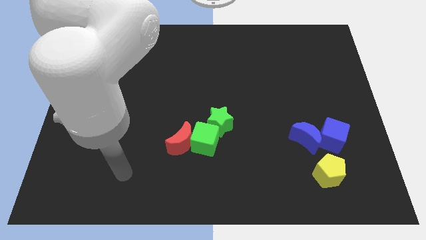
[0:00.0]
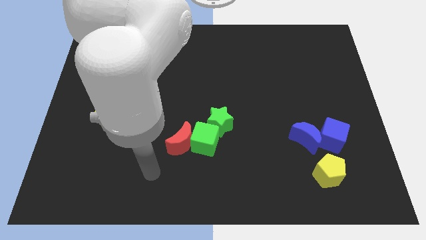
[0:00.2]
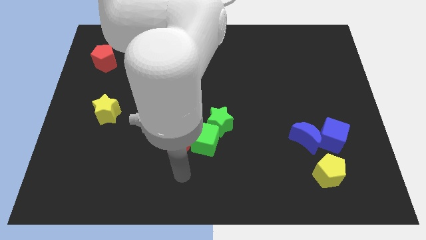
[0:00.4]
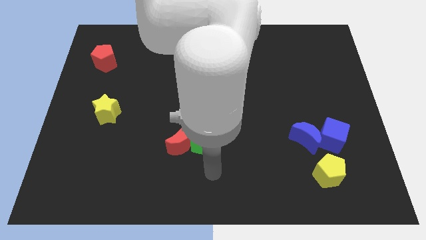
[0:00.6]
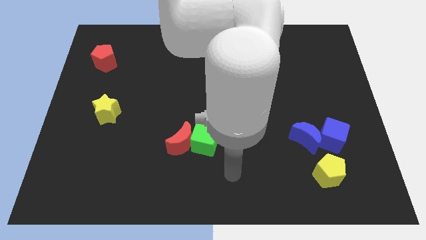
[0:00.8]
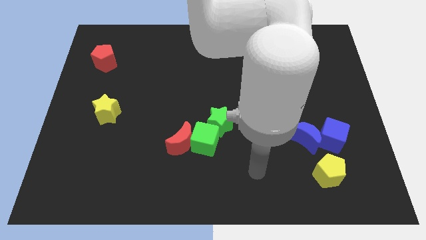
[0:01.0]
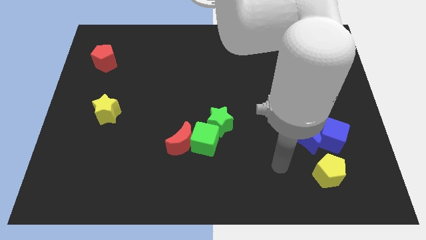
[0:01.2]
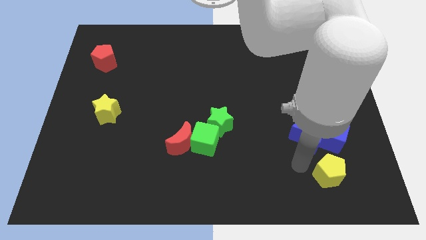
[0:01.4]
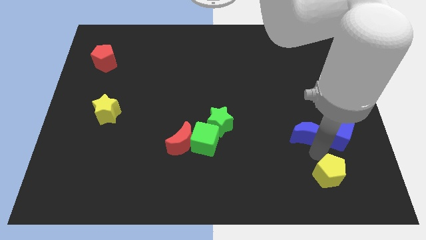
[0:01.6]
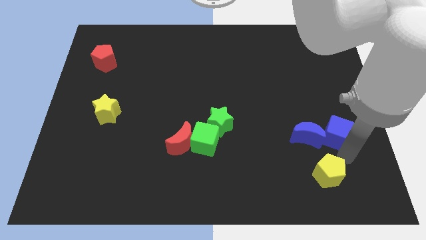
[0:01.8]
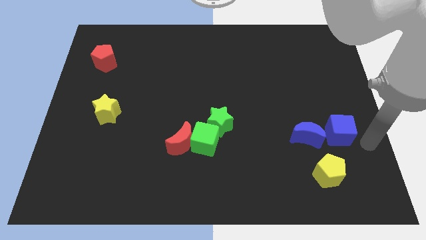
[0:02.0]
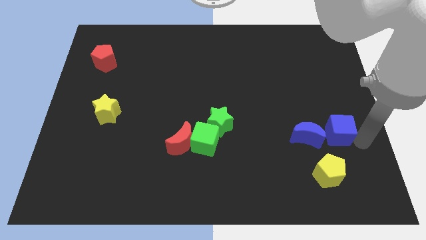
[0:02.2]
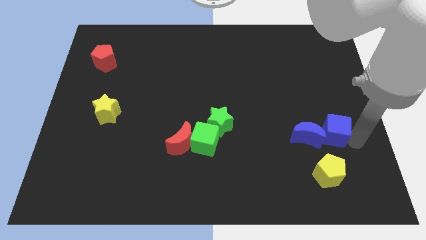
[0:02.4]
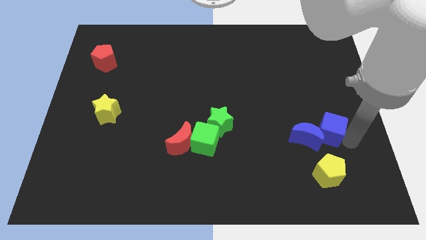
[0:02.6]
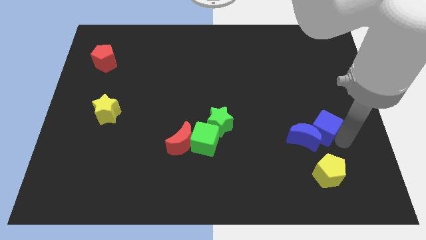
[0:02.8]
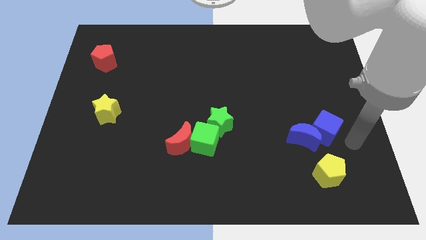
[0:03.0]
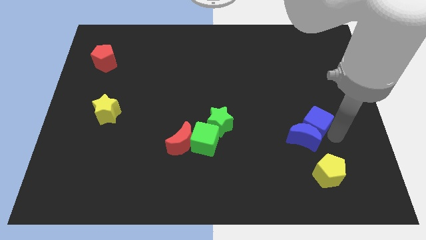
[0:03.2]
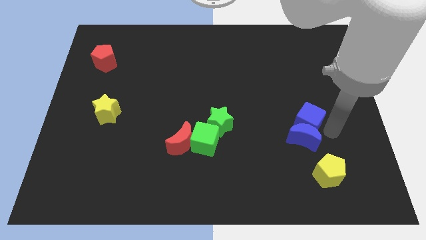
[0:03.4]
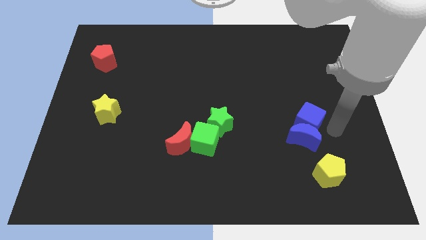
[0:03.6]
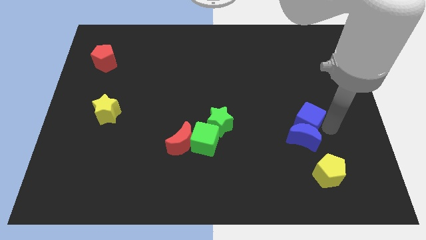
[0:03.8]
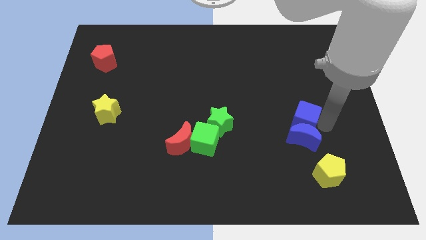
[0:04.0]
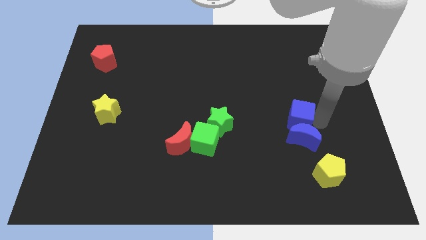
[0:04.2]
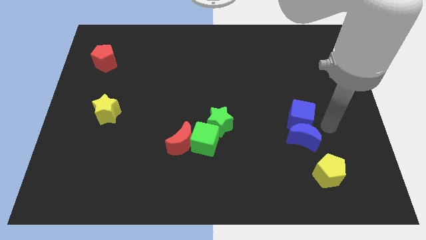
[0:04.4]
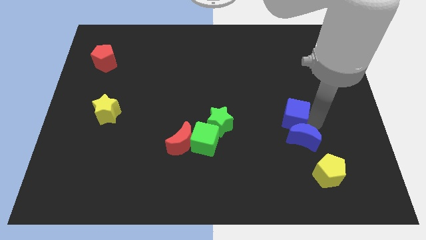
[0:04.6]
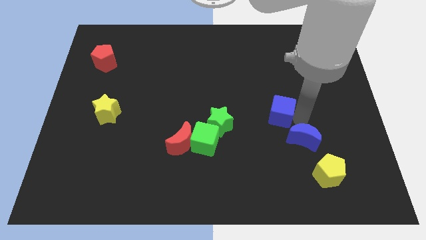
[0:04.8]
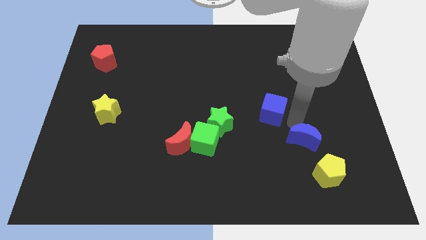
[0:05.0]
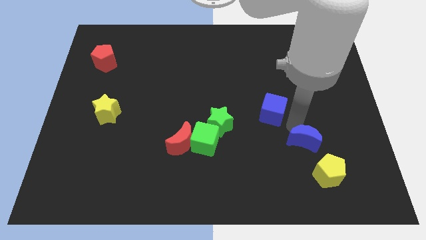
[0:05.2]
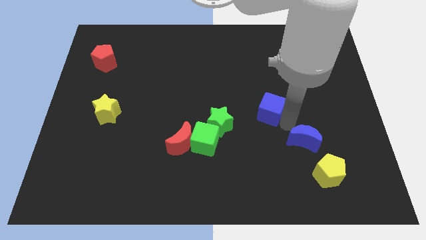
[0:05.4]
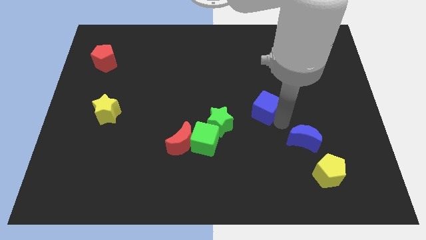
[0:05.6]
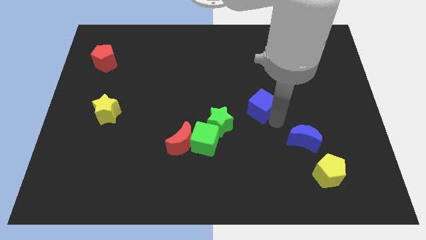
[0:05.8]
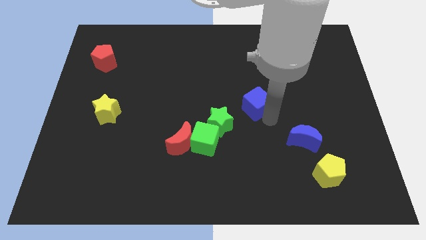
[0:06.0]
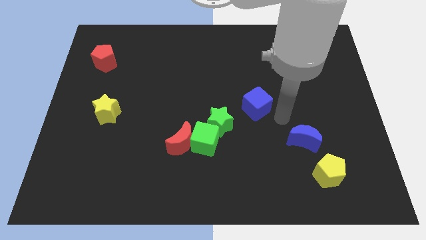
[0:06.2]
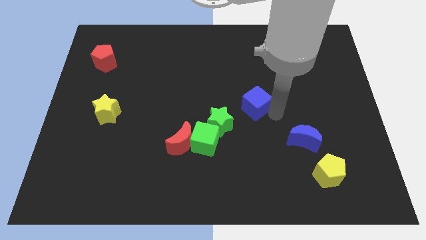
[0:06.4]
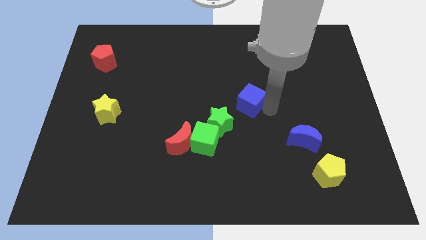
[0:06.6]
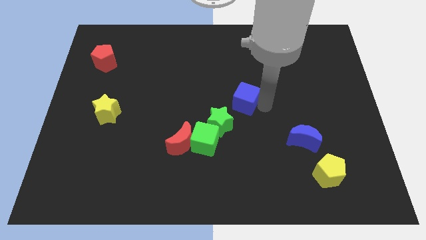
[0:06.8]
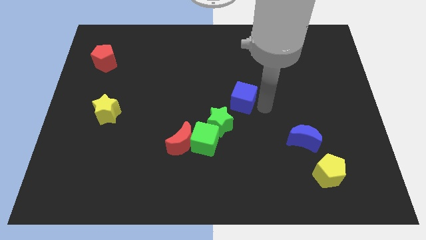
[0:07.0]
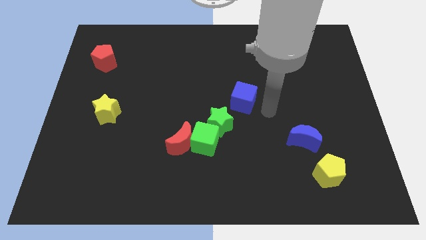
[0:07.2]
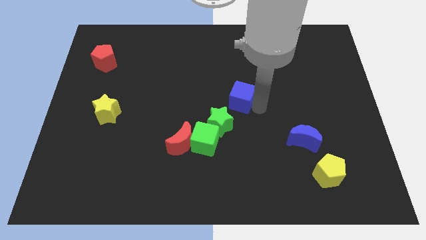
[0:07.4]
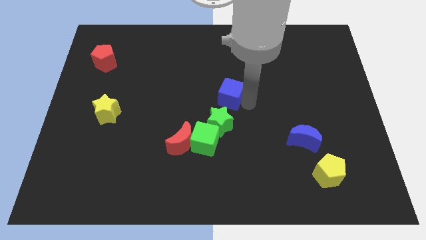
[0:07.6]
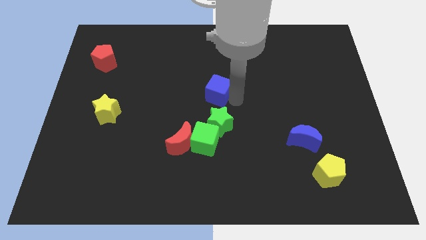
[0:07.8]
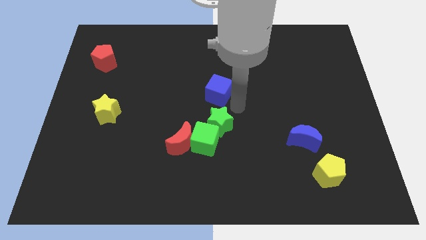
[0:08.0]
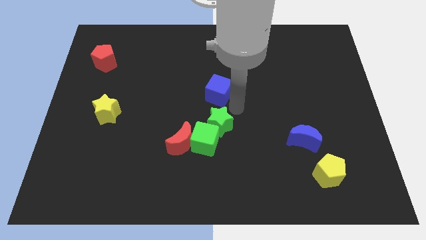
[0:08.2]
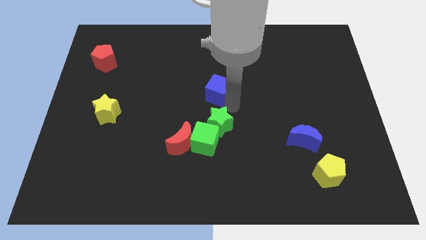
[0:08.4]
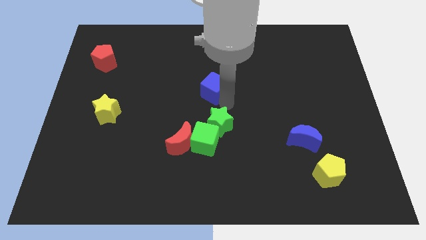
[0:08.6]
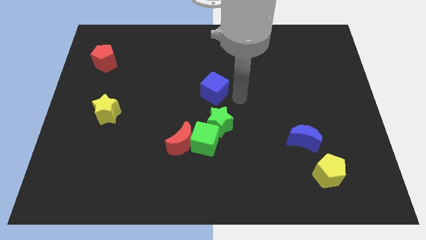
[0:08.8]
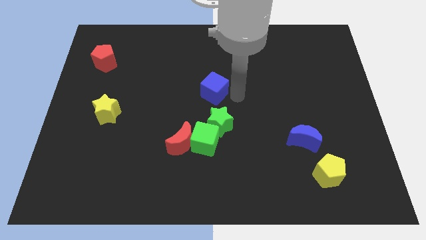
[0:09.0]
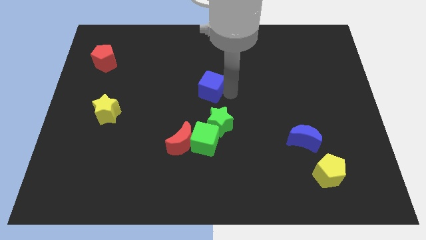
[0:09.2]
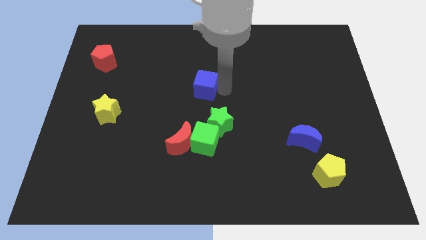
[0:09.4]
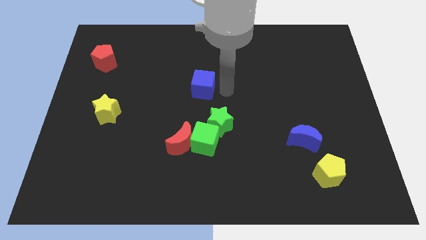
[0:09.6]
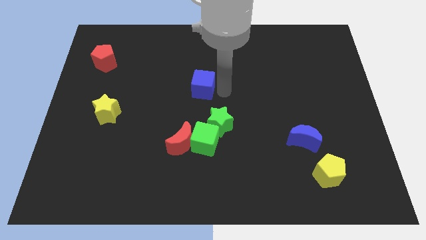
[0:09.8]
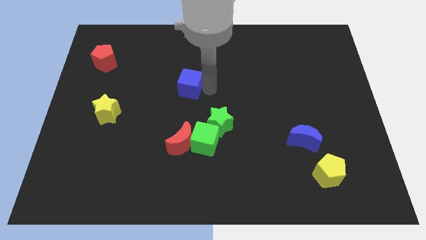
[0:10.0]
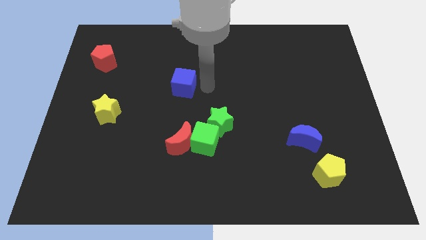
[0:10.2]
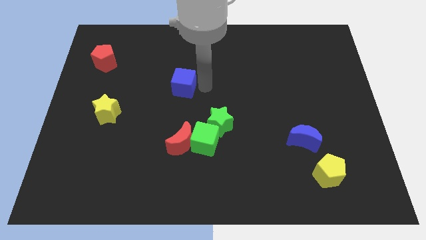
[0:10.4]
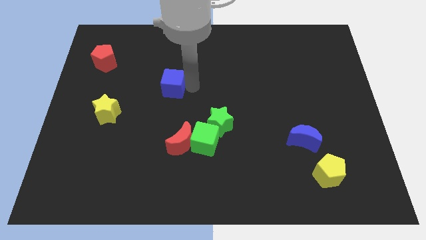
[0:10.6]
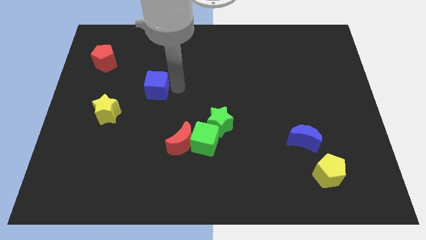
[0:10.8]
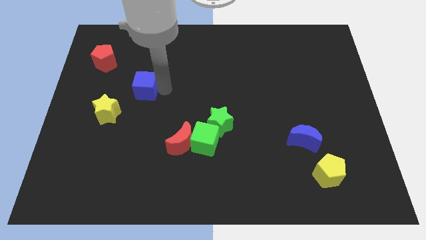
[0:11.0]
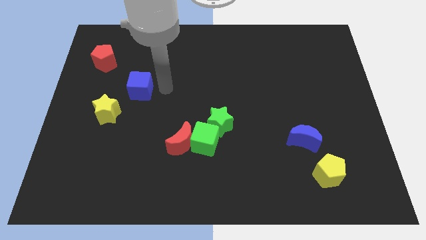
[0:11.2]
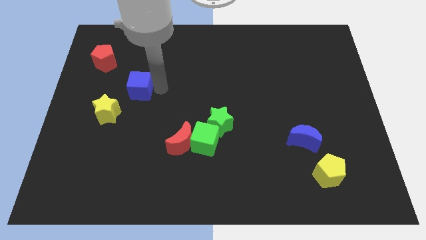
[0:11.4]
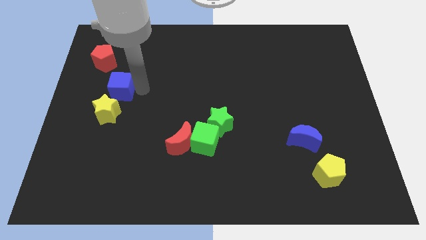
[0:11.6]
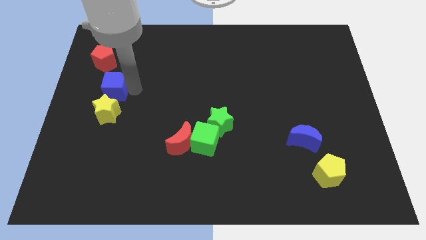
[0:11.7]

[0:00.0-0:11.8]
put the blue cube to the bottom of the red pentagon
